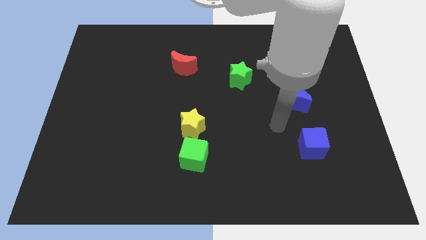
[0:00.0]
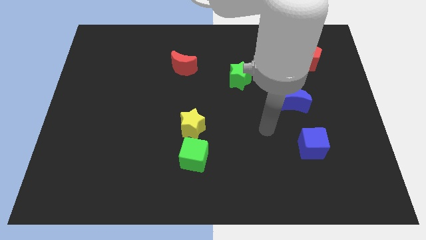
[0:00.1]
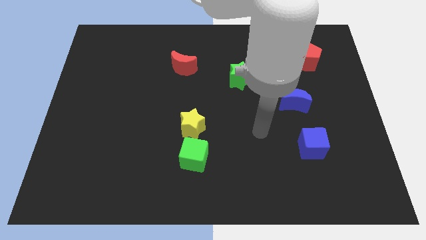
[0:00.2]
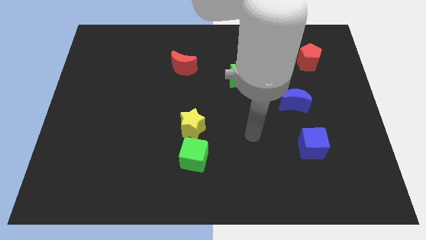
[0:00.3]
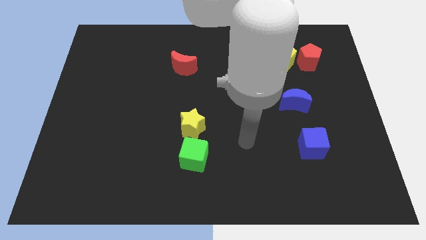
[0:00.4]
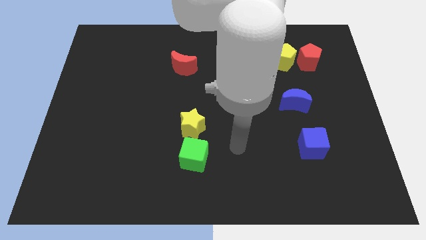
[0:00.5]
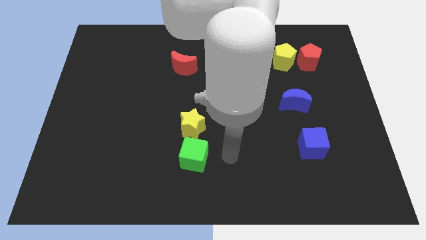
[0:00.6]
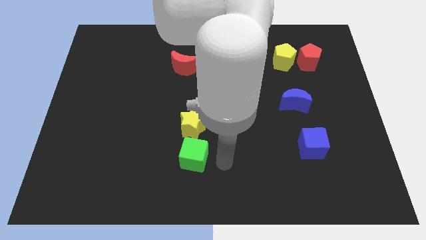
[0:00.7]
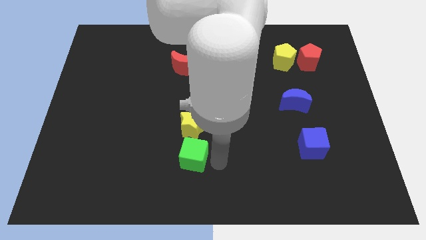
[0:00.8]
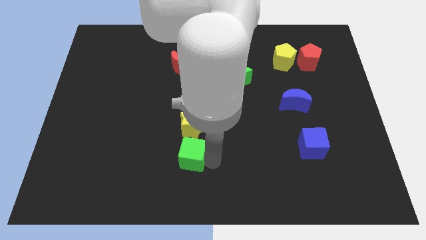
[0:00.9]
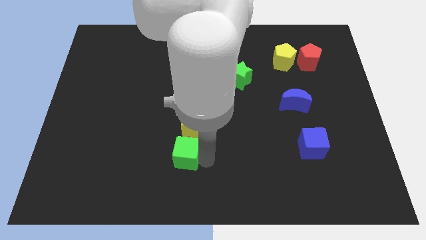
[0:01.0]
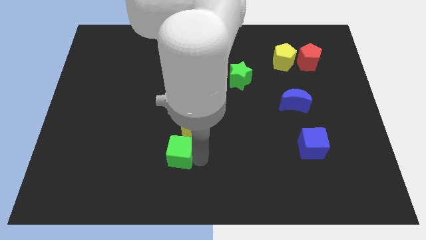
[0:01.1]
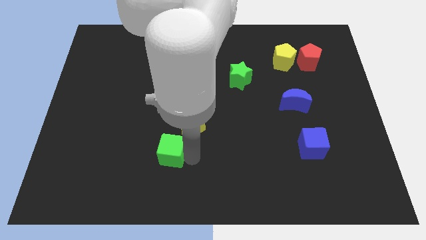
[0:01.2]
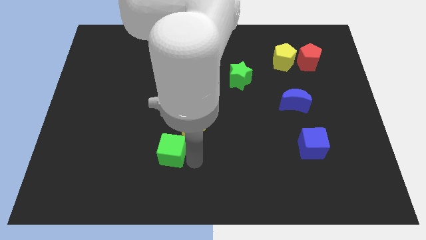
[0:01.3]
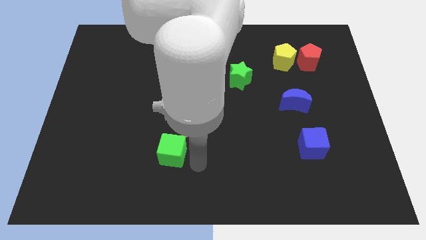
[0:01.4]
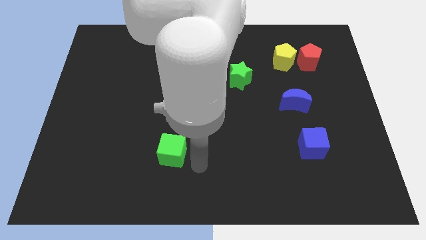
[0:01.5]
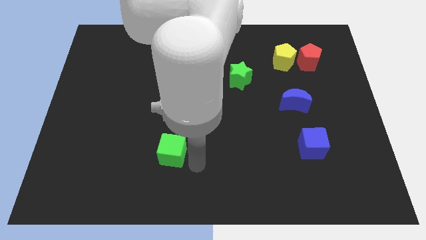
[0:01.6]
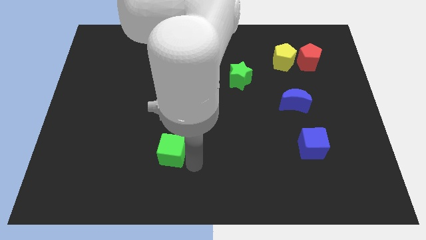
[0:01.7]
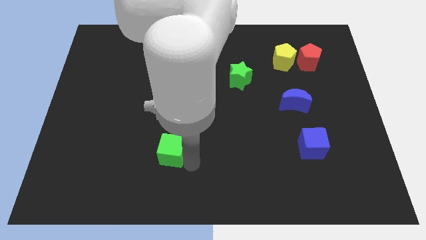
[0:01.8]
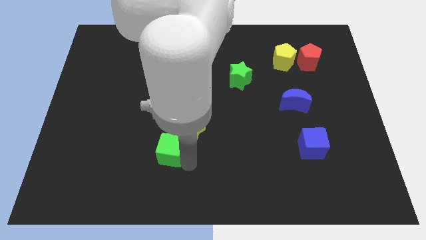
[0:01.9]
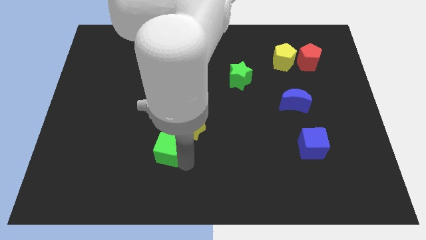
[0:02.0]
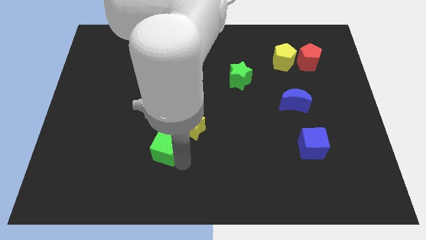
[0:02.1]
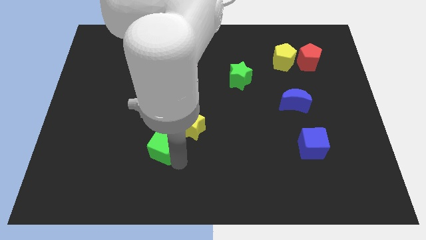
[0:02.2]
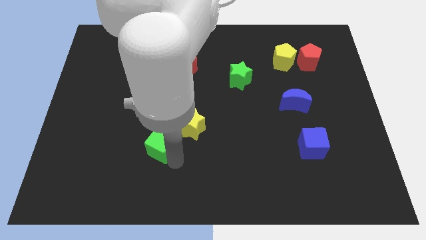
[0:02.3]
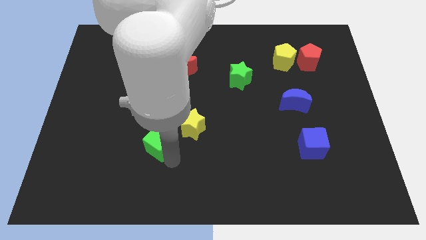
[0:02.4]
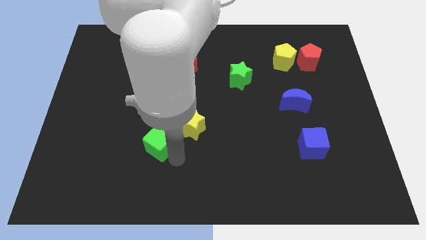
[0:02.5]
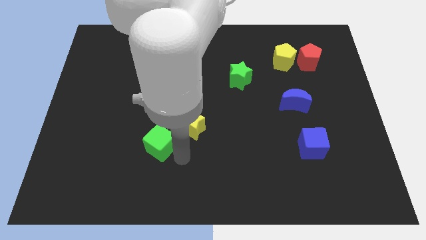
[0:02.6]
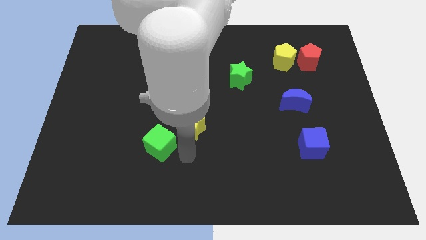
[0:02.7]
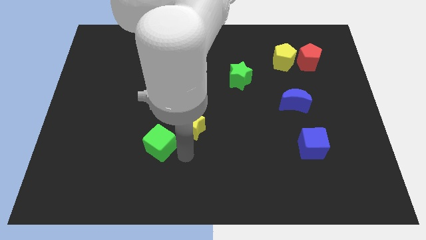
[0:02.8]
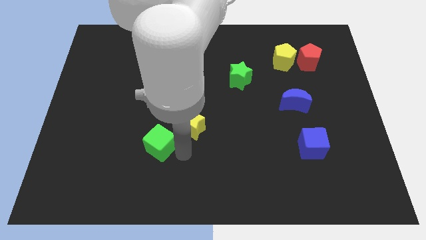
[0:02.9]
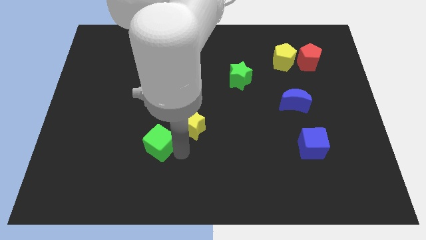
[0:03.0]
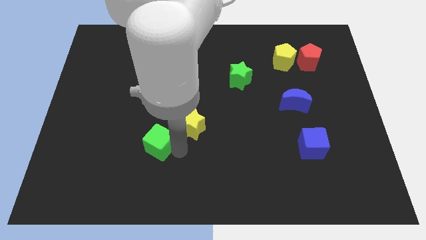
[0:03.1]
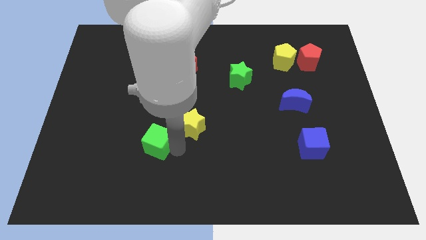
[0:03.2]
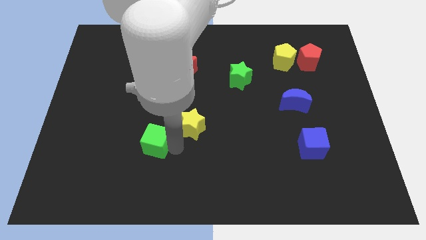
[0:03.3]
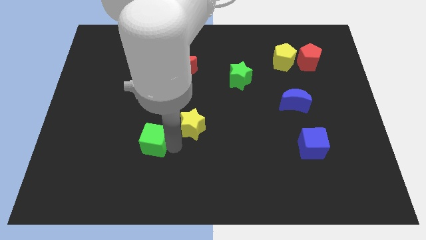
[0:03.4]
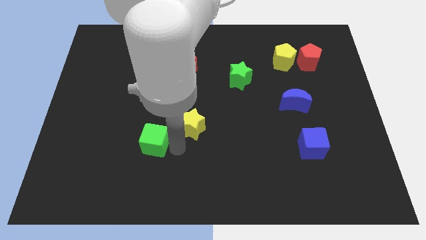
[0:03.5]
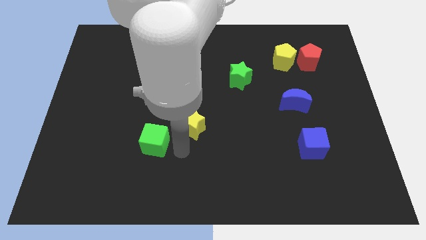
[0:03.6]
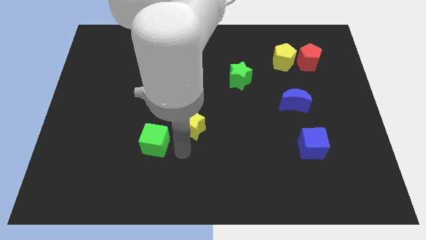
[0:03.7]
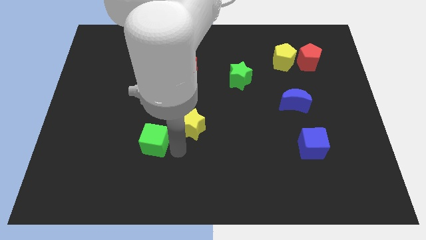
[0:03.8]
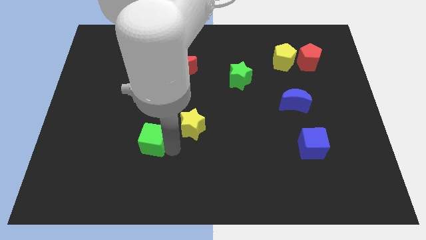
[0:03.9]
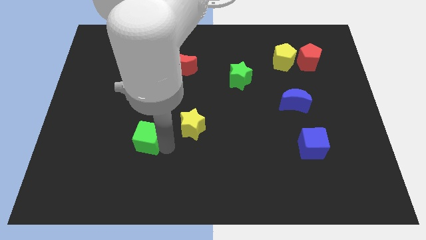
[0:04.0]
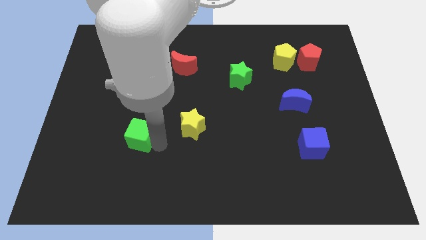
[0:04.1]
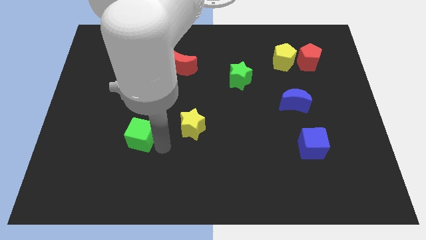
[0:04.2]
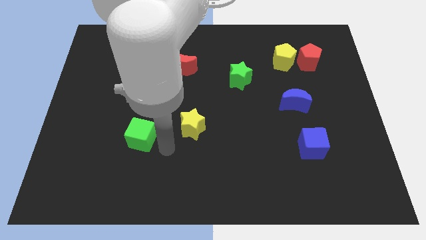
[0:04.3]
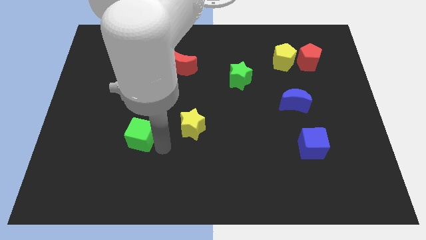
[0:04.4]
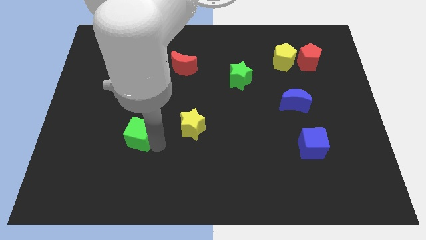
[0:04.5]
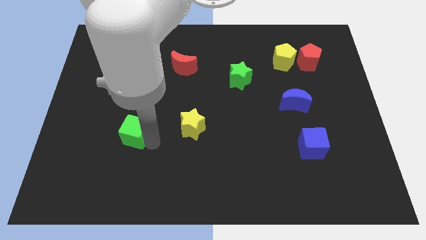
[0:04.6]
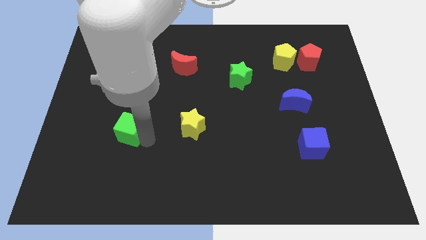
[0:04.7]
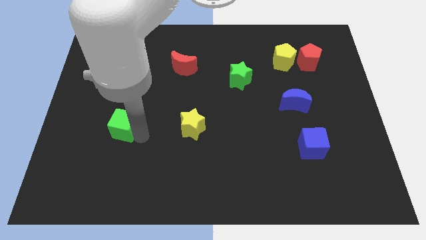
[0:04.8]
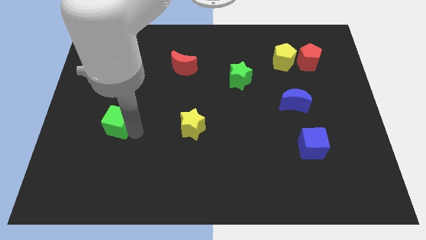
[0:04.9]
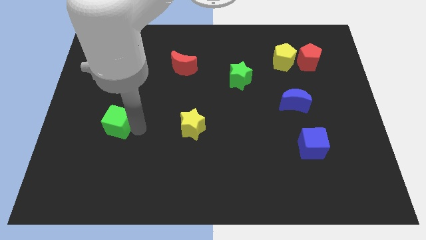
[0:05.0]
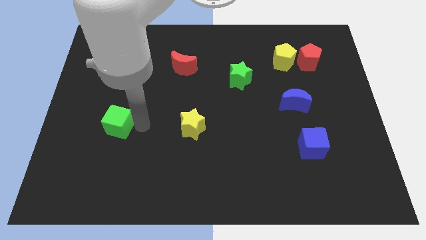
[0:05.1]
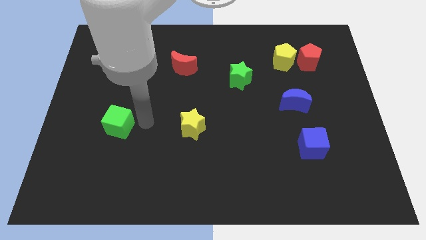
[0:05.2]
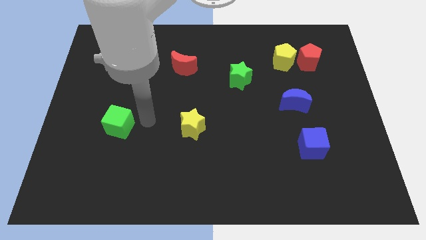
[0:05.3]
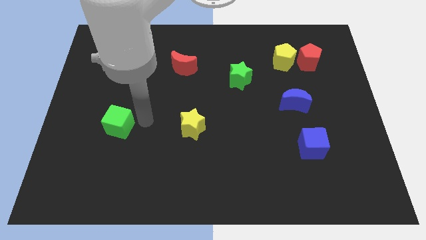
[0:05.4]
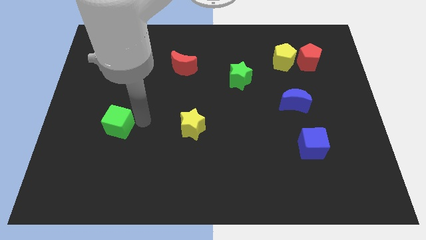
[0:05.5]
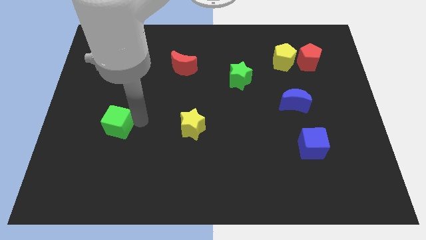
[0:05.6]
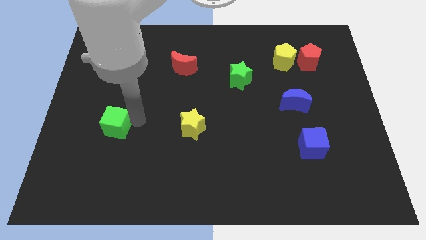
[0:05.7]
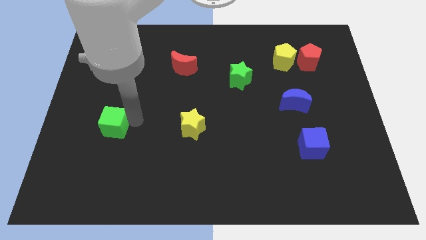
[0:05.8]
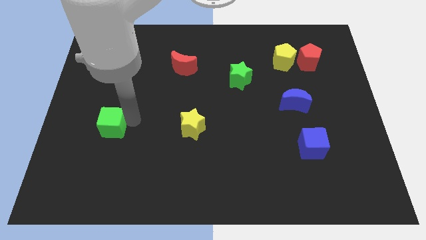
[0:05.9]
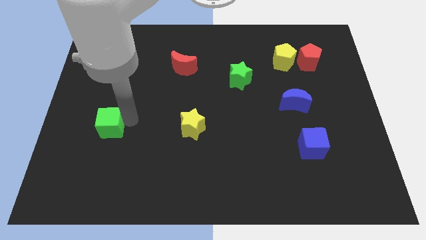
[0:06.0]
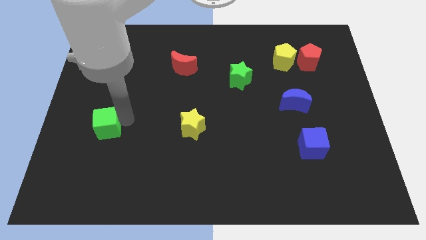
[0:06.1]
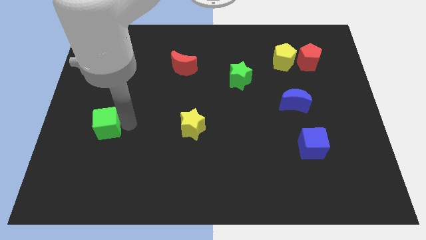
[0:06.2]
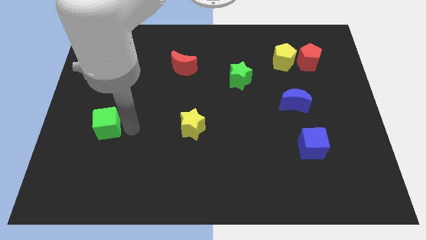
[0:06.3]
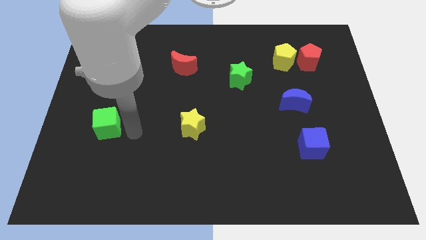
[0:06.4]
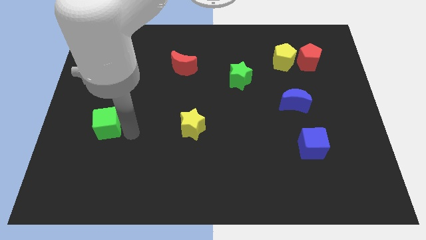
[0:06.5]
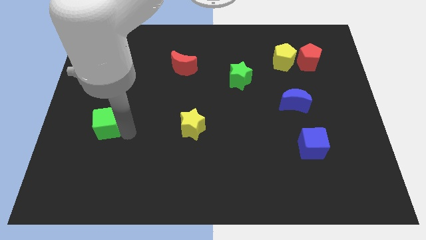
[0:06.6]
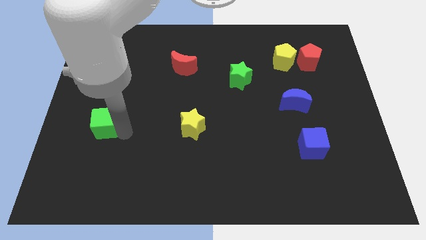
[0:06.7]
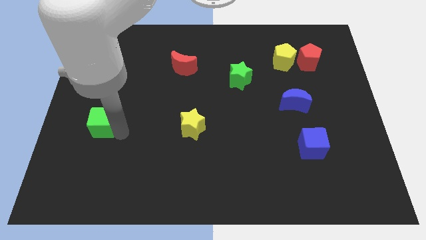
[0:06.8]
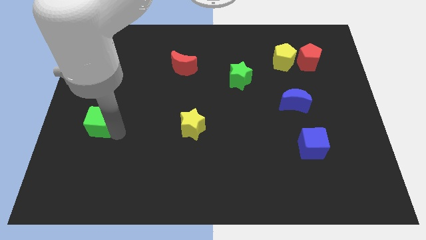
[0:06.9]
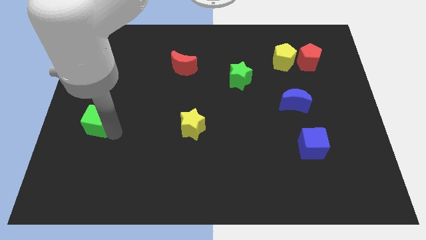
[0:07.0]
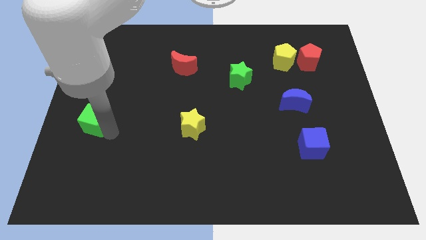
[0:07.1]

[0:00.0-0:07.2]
put the green cube to the left side
